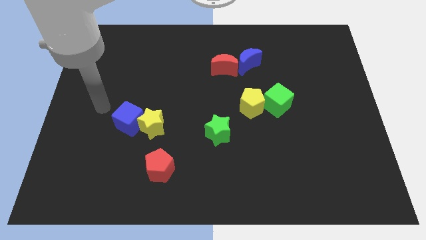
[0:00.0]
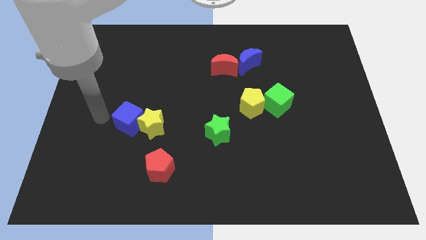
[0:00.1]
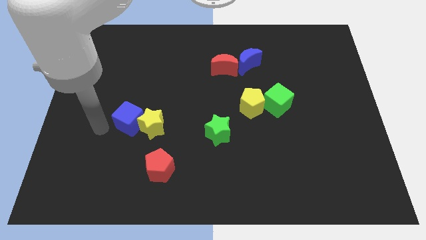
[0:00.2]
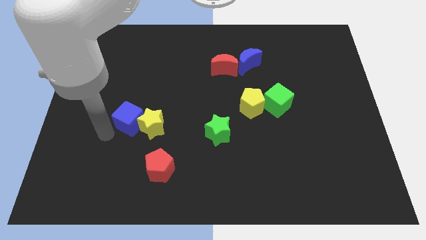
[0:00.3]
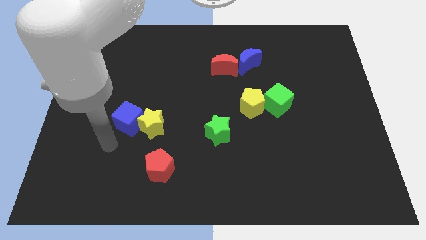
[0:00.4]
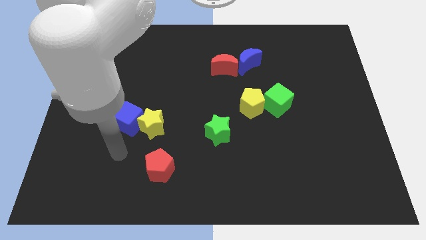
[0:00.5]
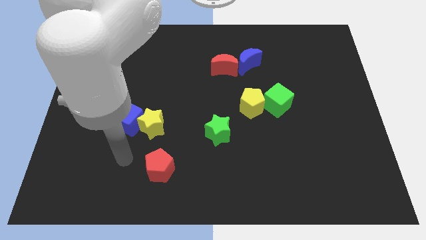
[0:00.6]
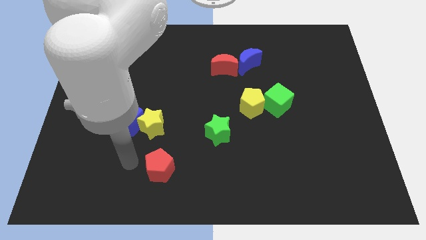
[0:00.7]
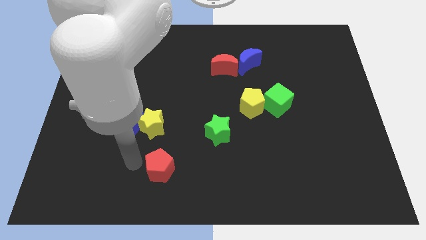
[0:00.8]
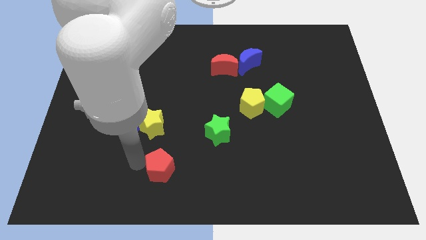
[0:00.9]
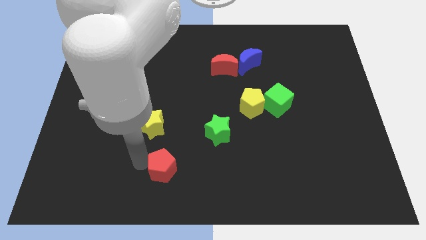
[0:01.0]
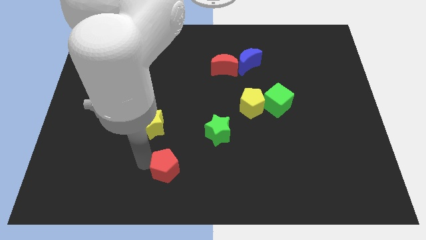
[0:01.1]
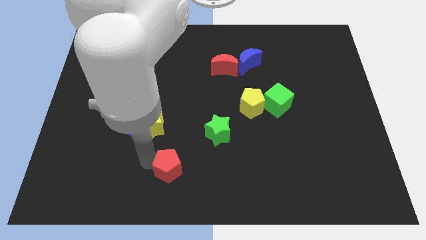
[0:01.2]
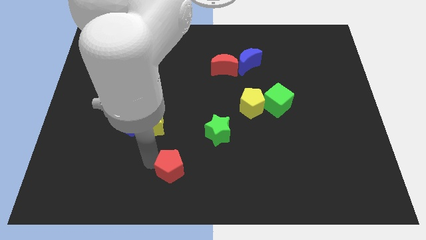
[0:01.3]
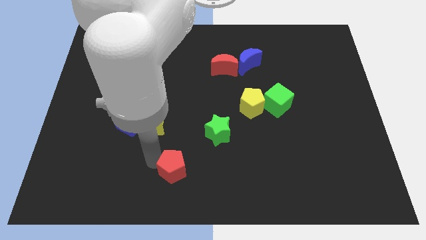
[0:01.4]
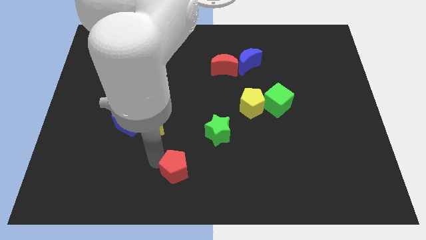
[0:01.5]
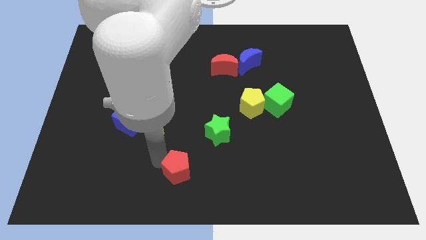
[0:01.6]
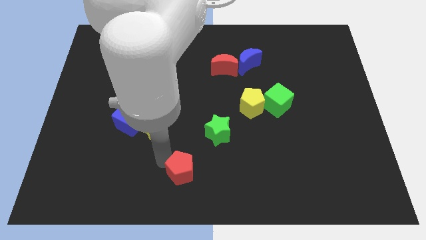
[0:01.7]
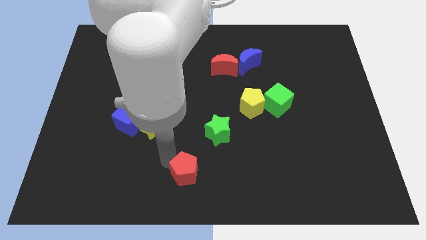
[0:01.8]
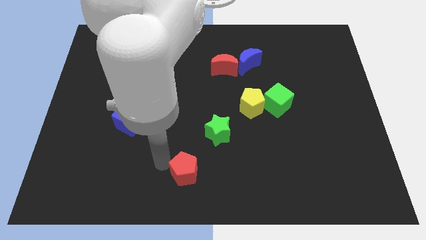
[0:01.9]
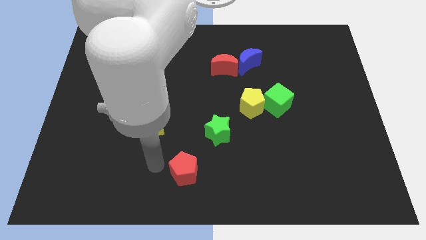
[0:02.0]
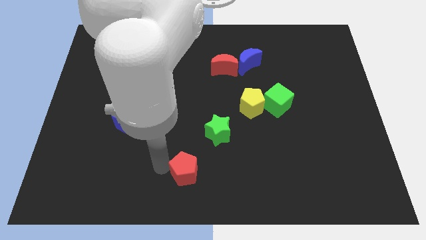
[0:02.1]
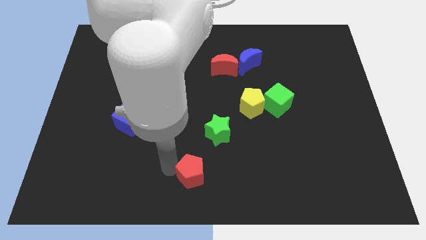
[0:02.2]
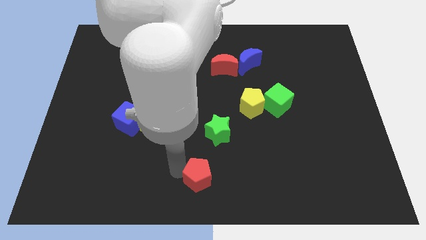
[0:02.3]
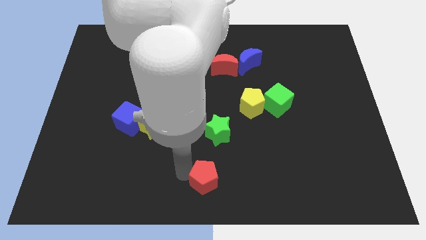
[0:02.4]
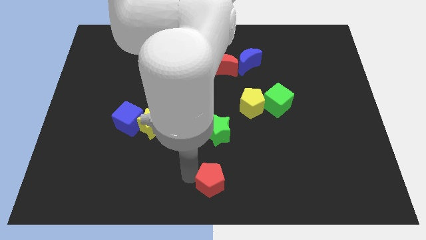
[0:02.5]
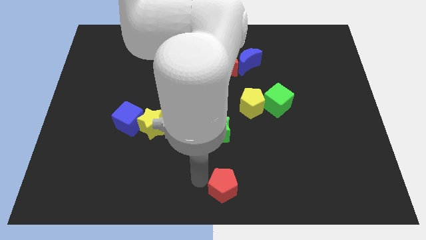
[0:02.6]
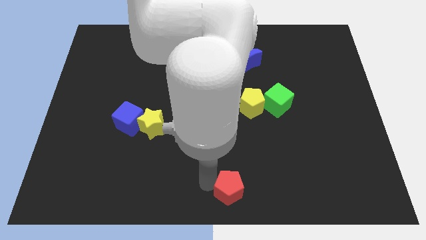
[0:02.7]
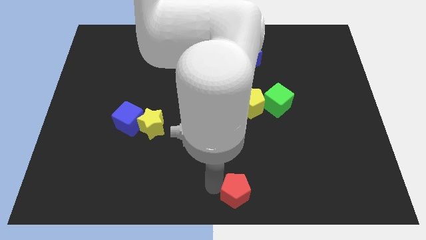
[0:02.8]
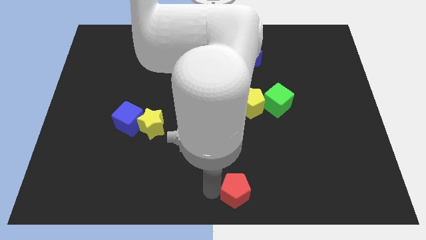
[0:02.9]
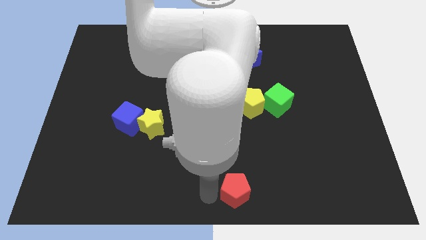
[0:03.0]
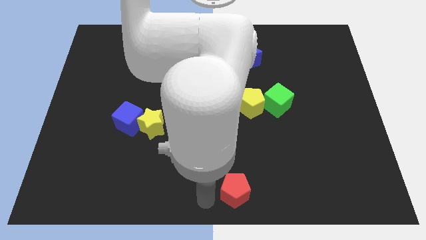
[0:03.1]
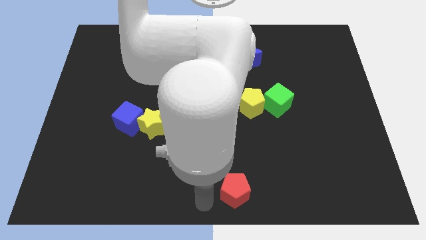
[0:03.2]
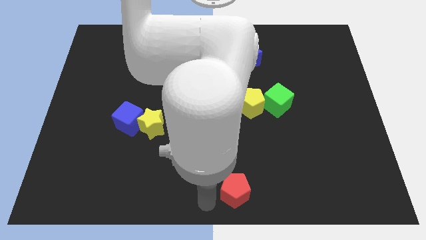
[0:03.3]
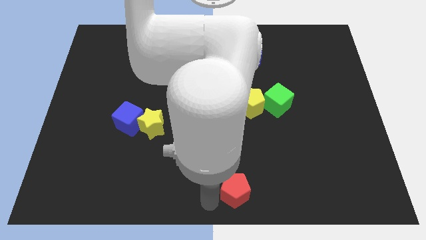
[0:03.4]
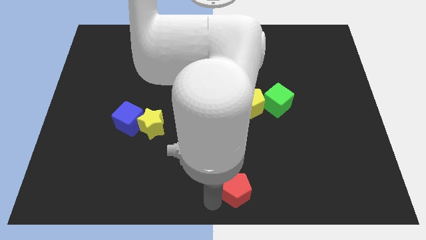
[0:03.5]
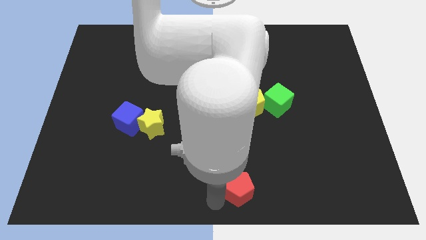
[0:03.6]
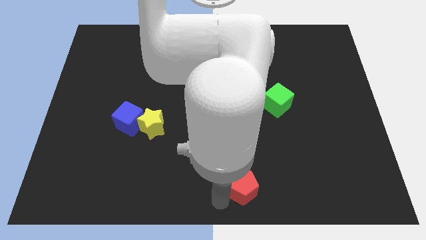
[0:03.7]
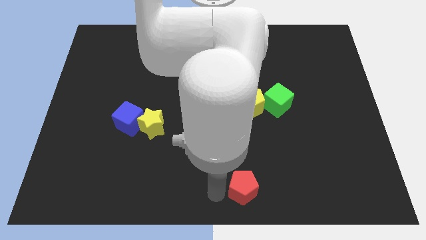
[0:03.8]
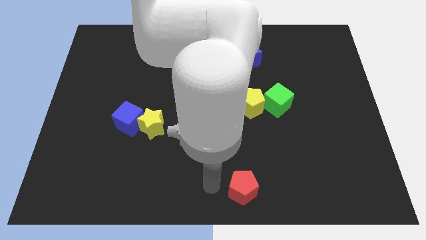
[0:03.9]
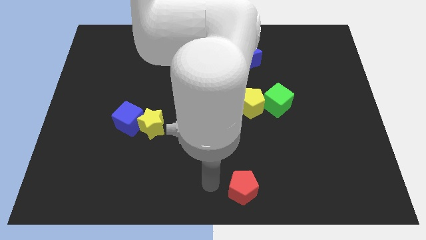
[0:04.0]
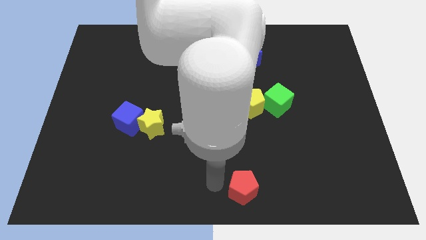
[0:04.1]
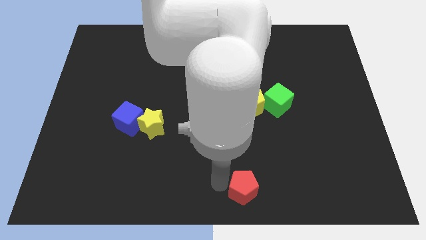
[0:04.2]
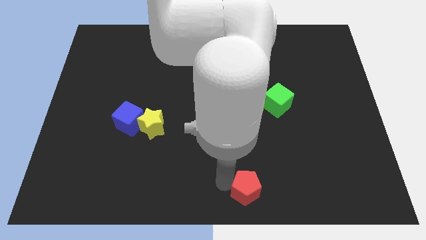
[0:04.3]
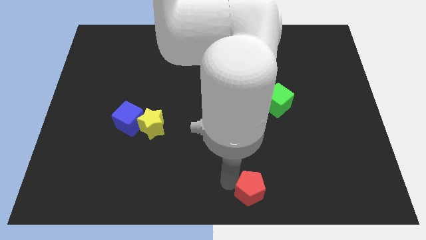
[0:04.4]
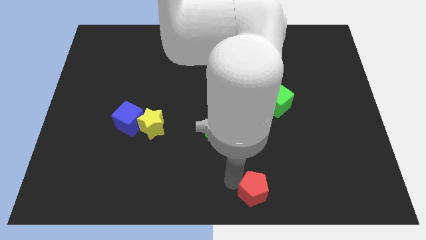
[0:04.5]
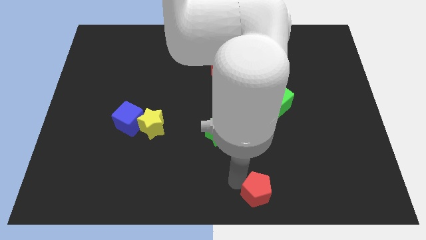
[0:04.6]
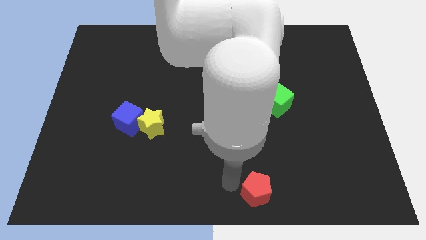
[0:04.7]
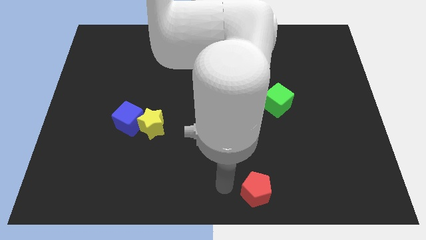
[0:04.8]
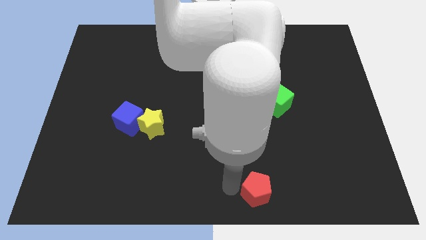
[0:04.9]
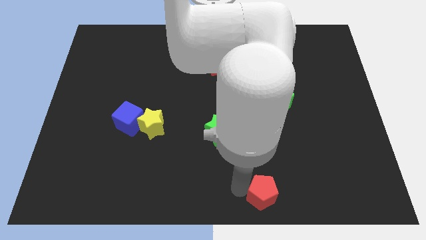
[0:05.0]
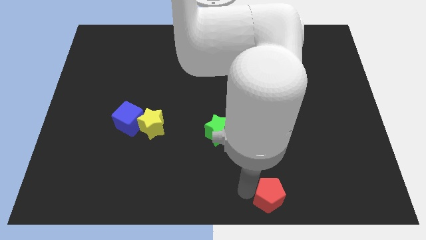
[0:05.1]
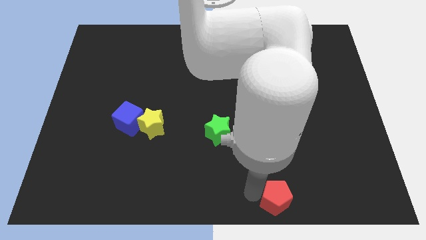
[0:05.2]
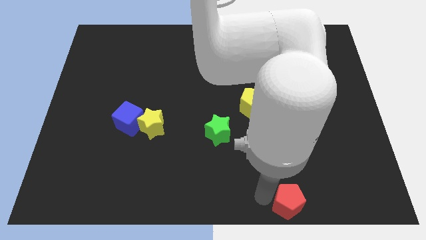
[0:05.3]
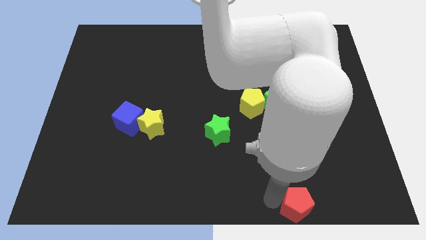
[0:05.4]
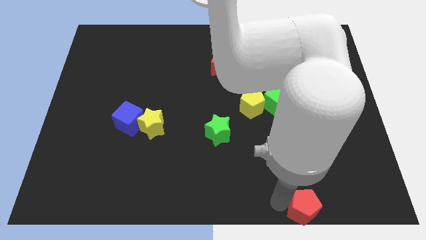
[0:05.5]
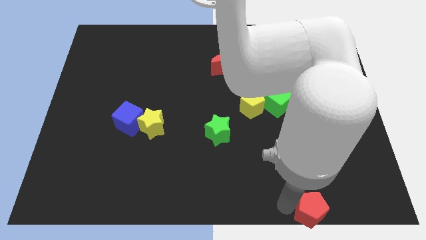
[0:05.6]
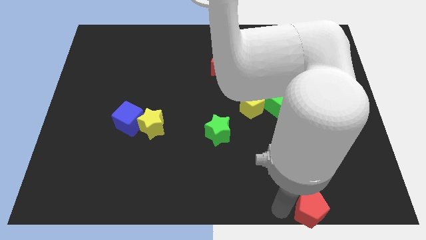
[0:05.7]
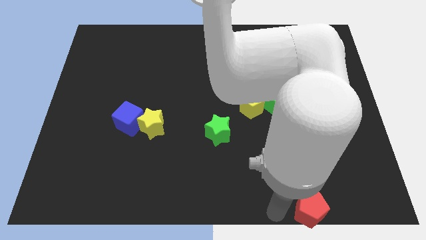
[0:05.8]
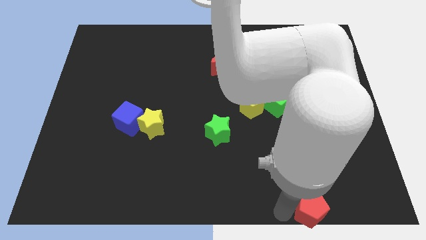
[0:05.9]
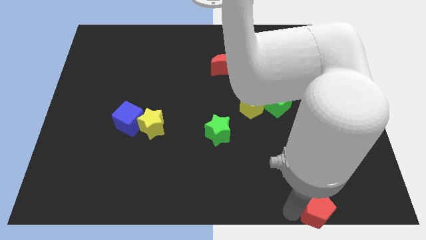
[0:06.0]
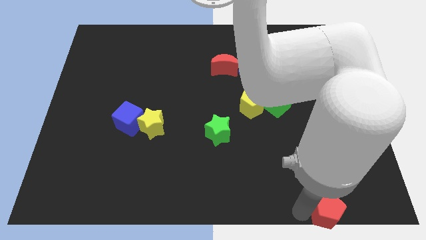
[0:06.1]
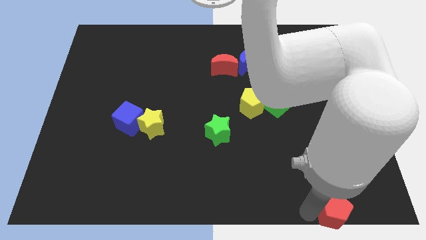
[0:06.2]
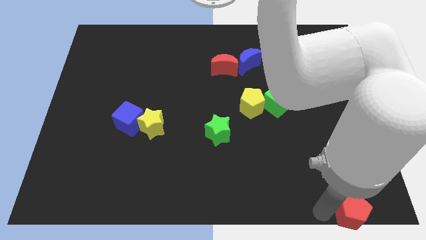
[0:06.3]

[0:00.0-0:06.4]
move the red pentagon to the lower right corner

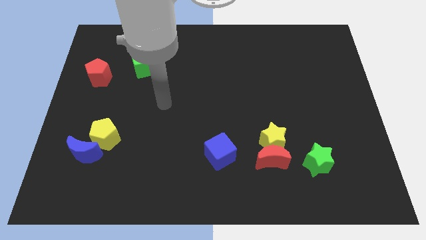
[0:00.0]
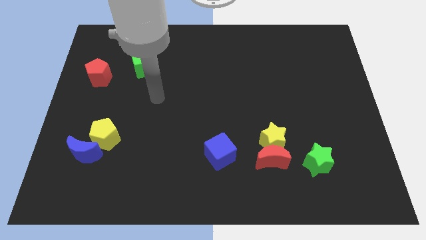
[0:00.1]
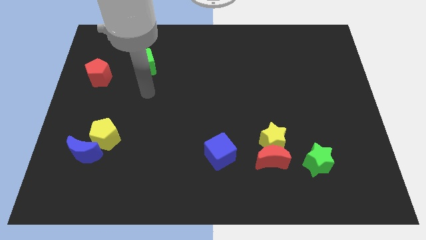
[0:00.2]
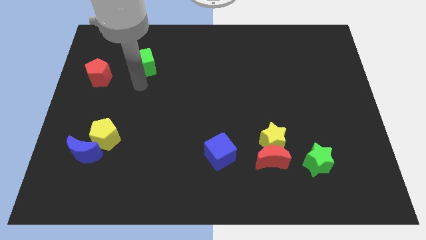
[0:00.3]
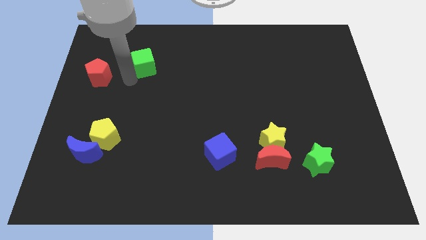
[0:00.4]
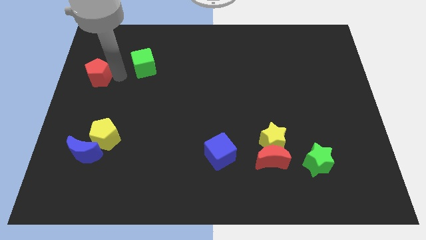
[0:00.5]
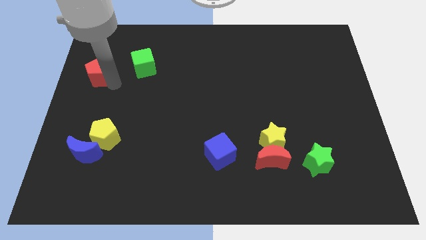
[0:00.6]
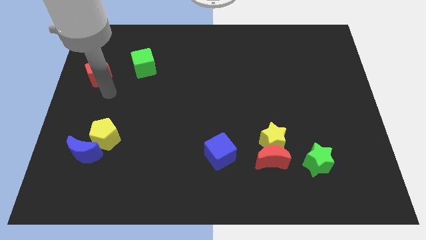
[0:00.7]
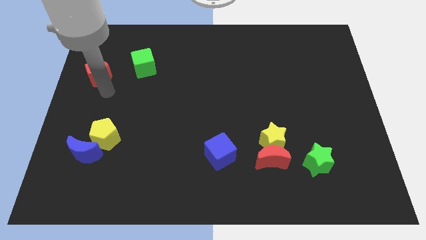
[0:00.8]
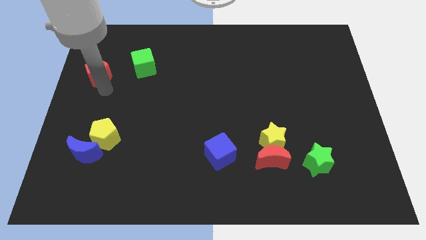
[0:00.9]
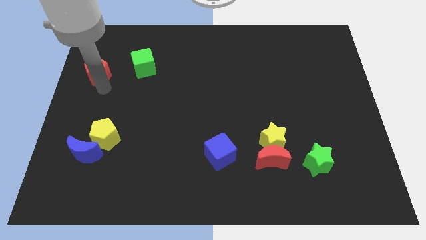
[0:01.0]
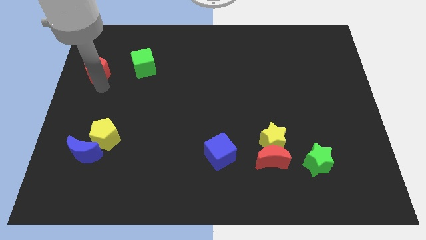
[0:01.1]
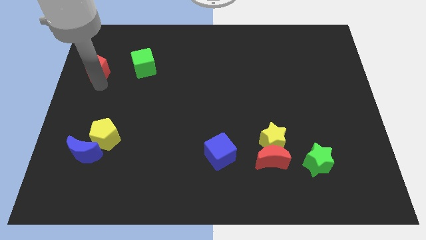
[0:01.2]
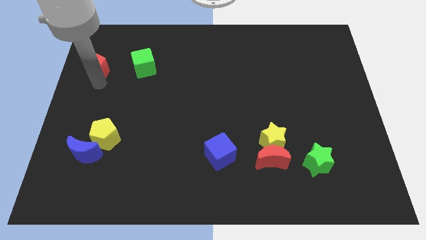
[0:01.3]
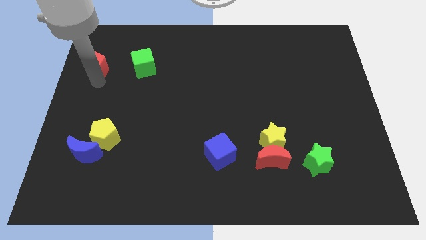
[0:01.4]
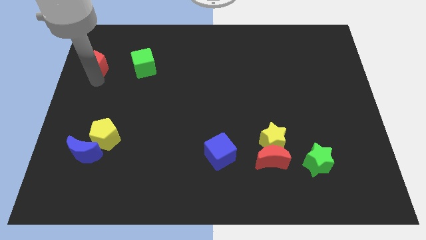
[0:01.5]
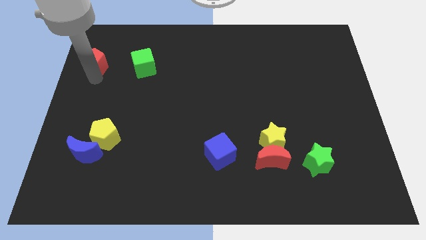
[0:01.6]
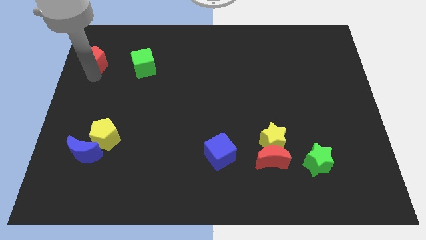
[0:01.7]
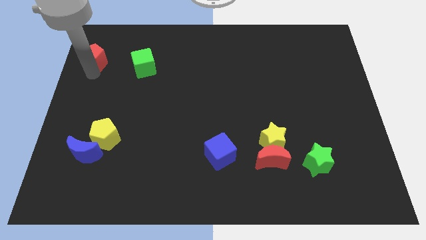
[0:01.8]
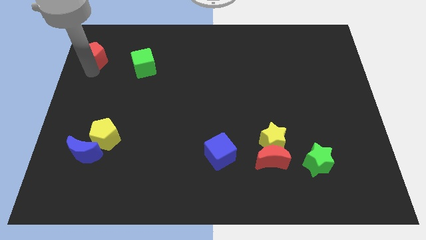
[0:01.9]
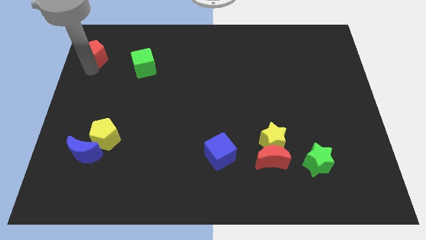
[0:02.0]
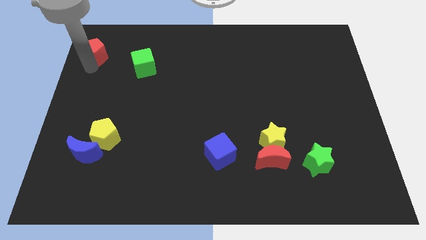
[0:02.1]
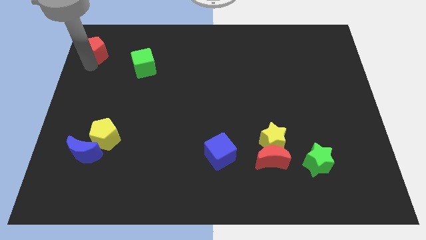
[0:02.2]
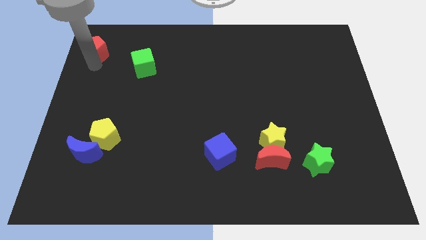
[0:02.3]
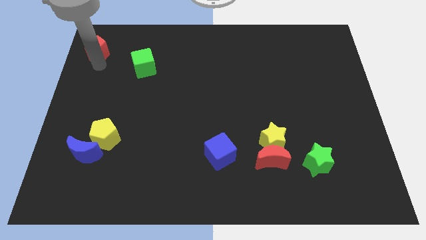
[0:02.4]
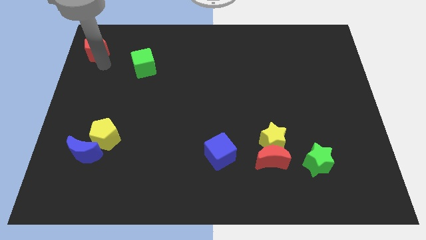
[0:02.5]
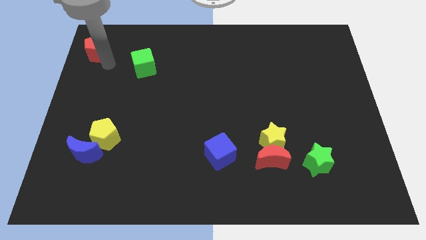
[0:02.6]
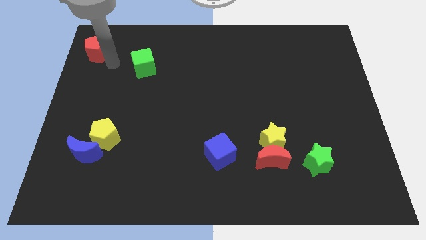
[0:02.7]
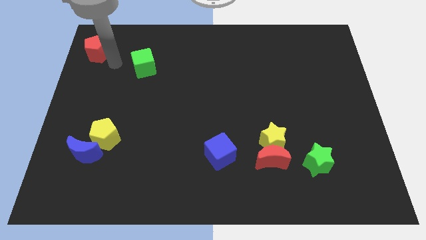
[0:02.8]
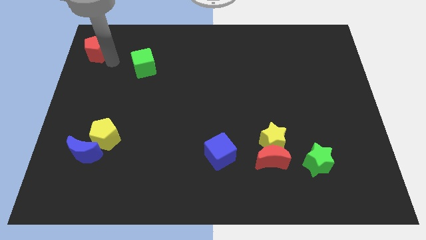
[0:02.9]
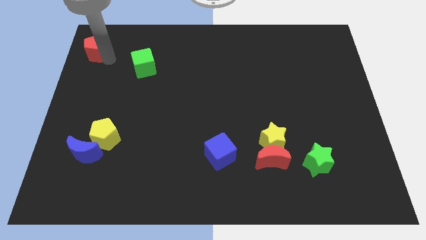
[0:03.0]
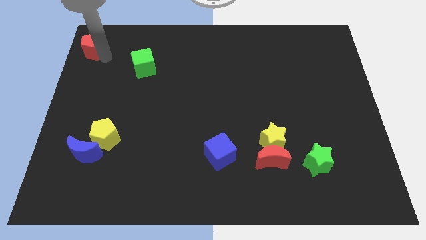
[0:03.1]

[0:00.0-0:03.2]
slide the red pentagon to the top left
